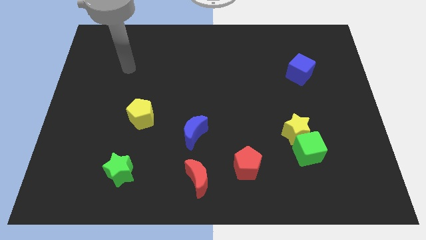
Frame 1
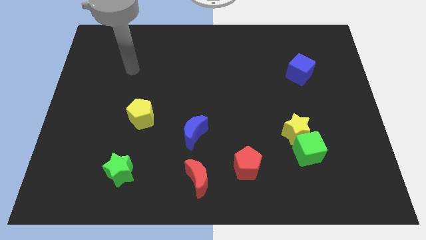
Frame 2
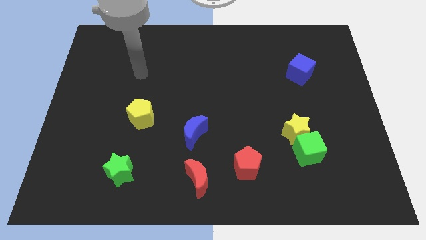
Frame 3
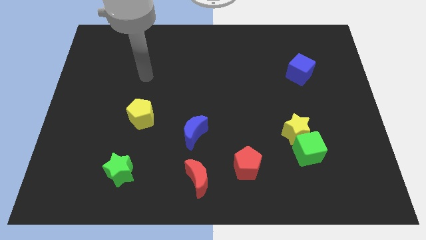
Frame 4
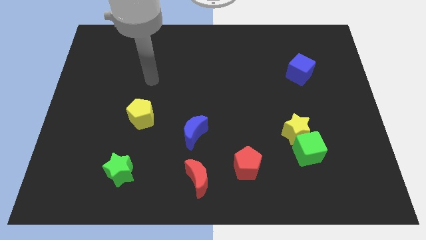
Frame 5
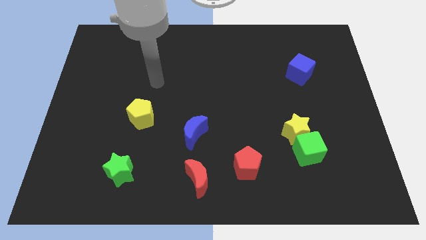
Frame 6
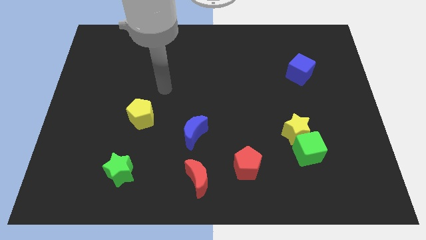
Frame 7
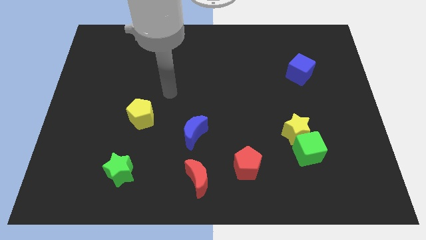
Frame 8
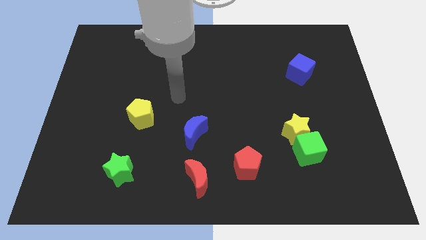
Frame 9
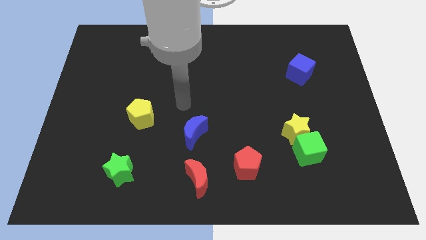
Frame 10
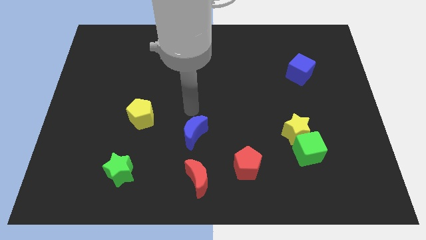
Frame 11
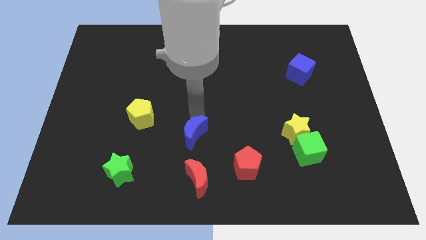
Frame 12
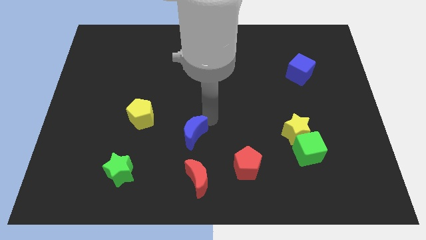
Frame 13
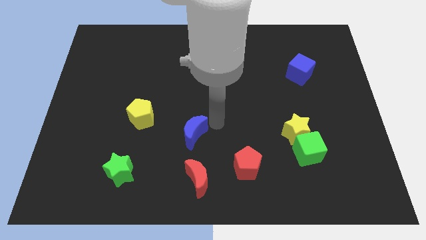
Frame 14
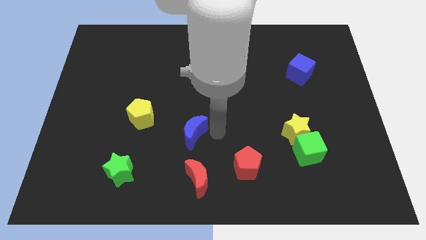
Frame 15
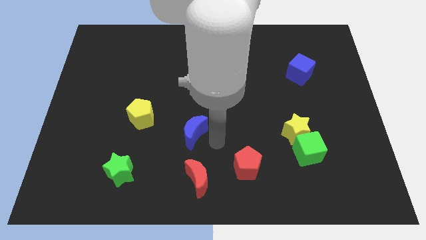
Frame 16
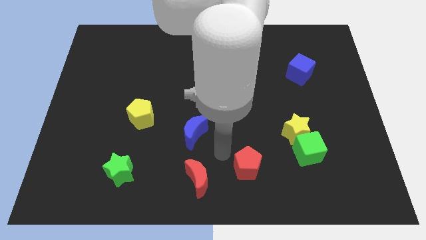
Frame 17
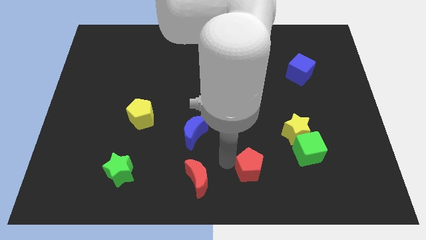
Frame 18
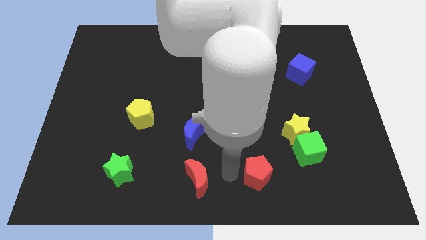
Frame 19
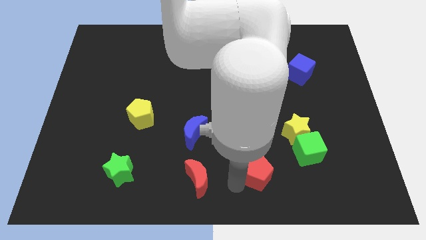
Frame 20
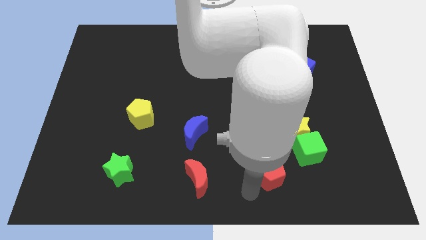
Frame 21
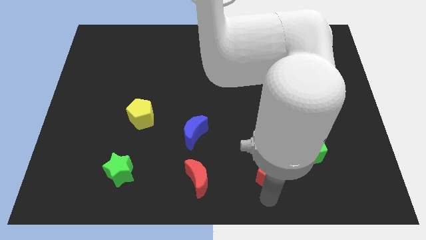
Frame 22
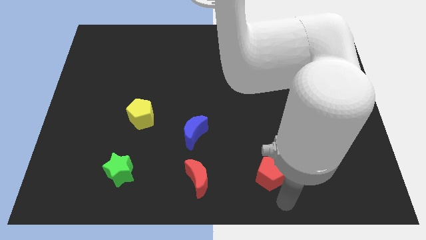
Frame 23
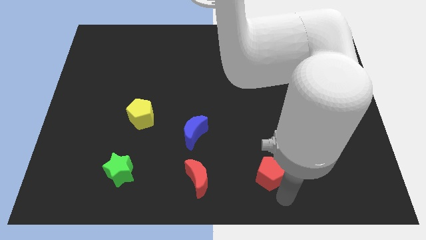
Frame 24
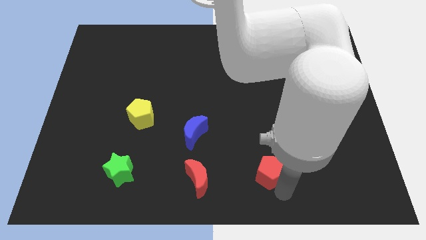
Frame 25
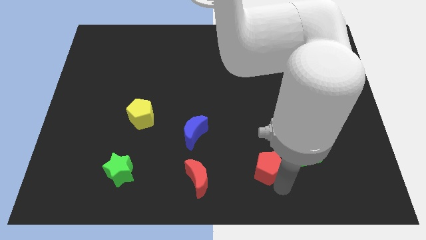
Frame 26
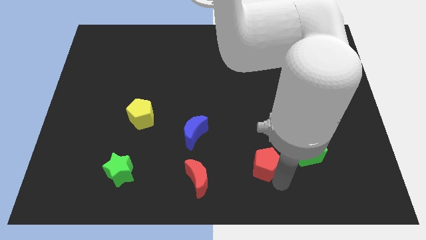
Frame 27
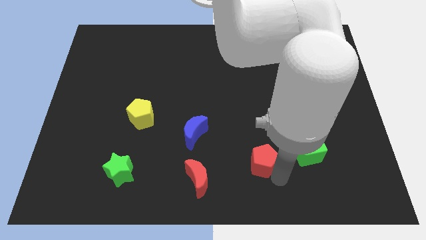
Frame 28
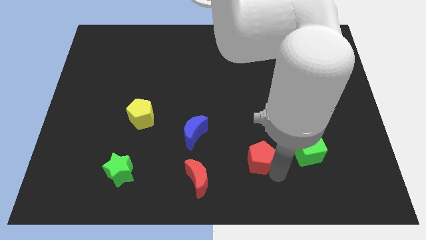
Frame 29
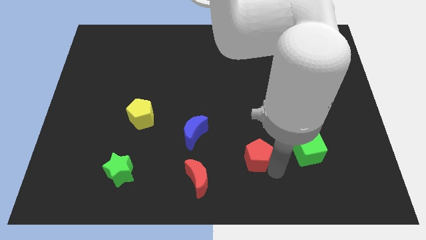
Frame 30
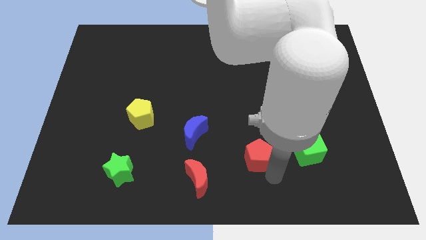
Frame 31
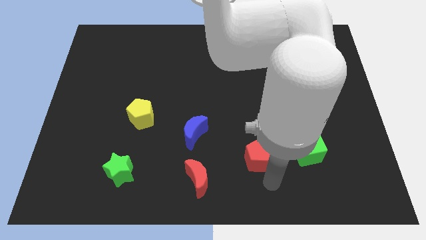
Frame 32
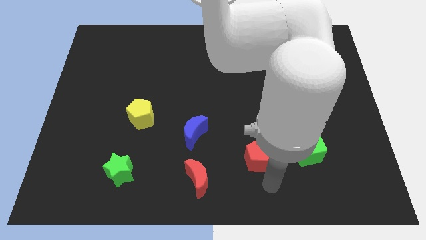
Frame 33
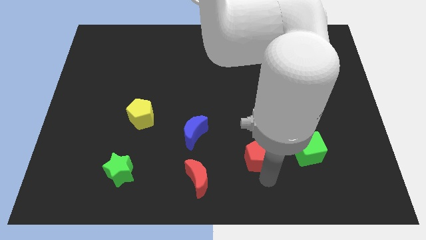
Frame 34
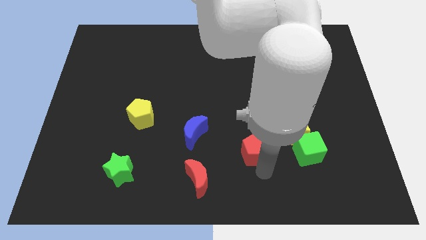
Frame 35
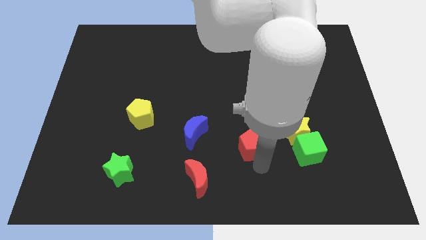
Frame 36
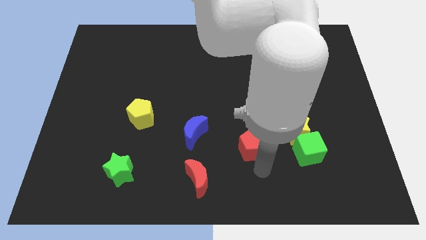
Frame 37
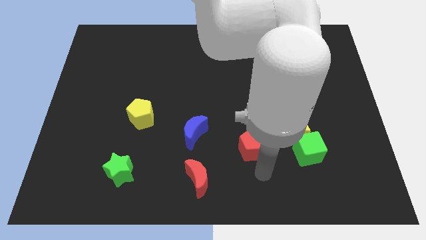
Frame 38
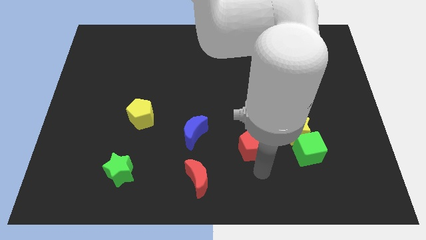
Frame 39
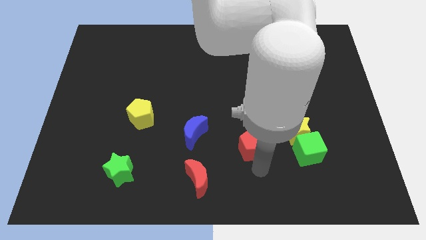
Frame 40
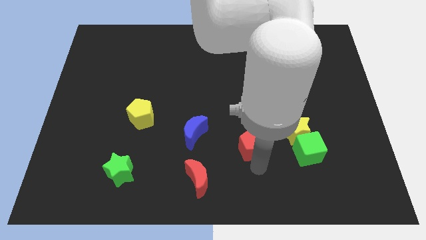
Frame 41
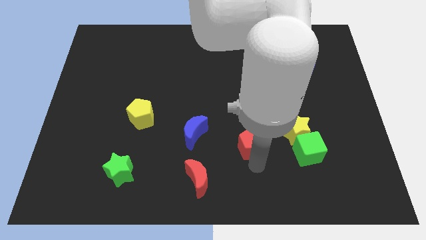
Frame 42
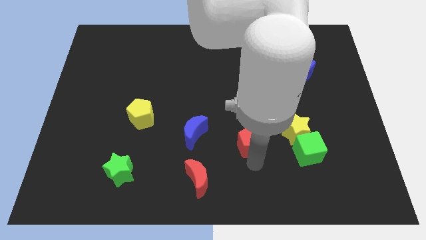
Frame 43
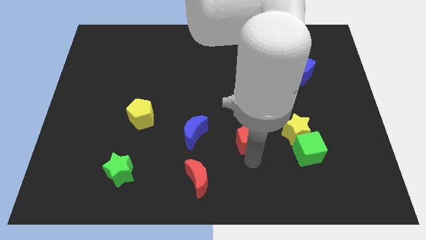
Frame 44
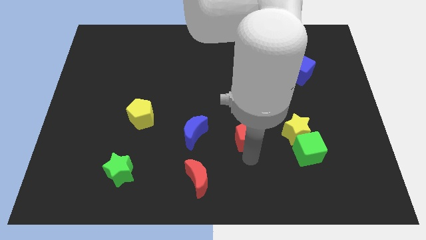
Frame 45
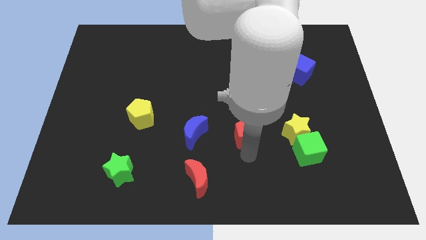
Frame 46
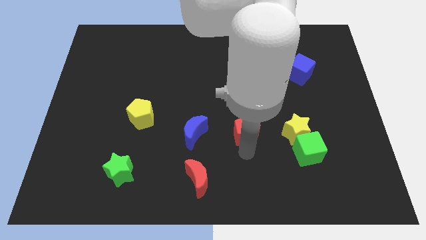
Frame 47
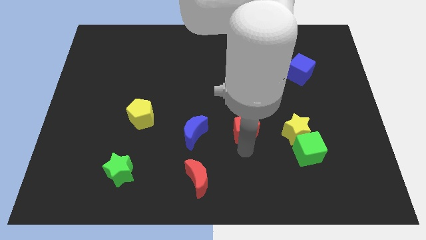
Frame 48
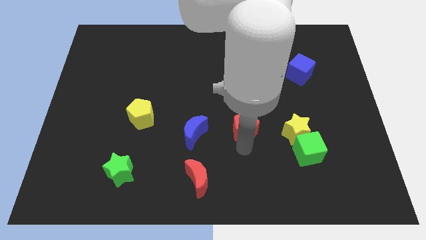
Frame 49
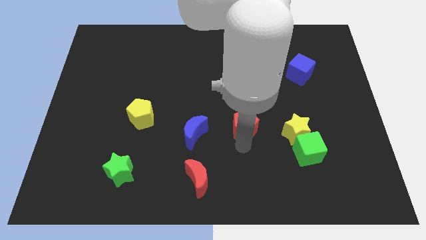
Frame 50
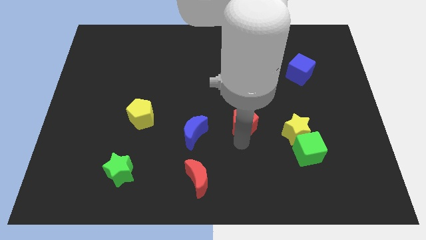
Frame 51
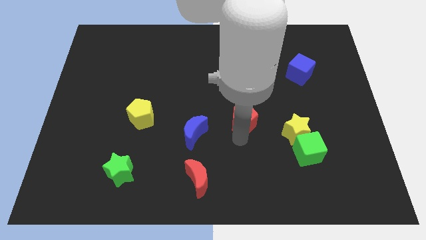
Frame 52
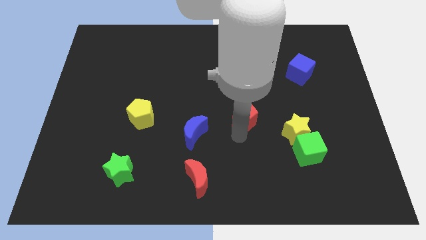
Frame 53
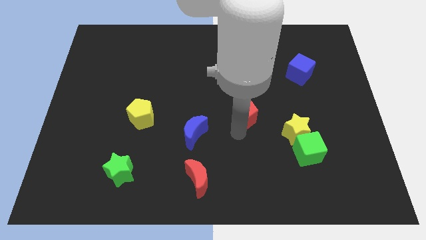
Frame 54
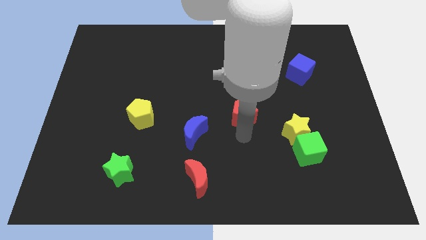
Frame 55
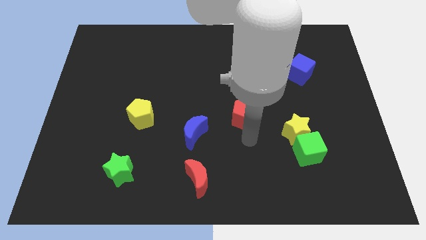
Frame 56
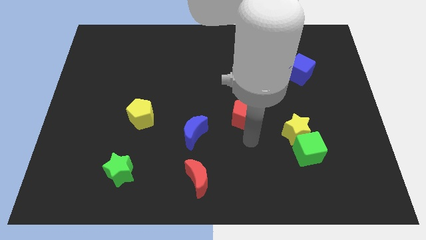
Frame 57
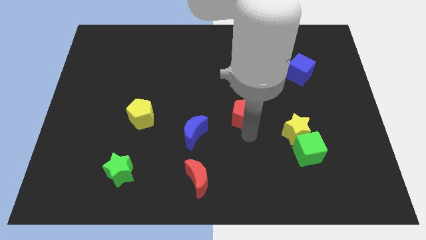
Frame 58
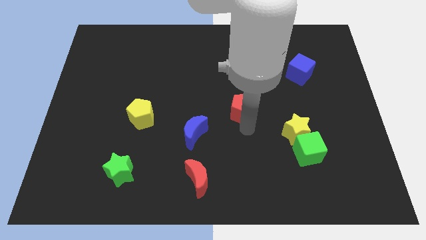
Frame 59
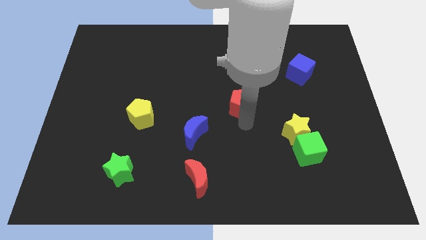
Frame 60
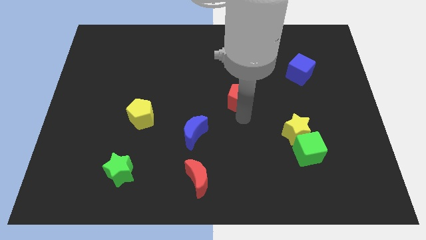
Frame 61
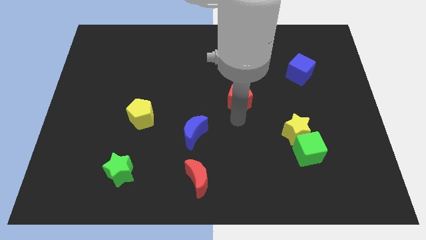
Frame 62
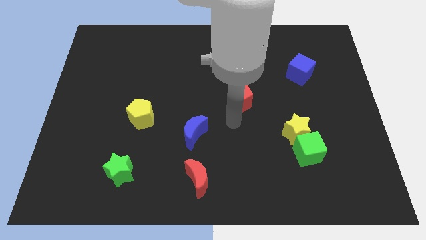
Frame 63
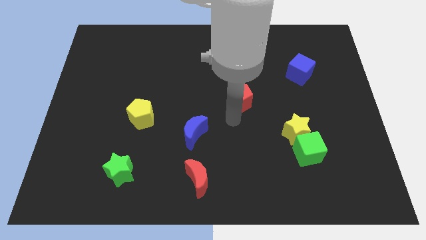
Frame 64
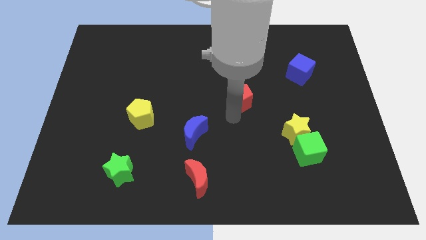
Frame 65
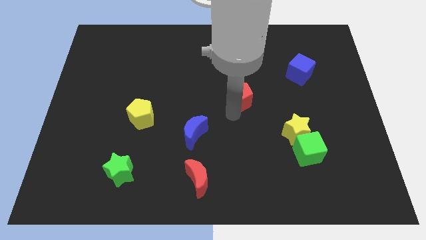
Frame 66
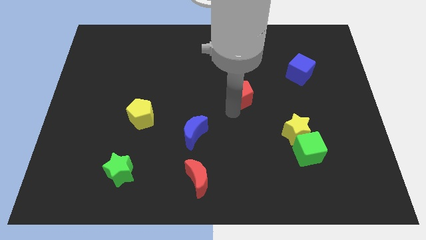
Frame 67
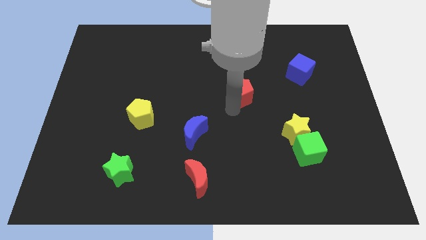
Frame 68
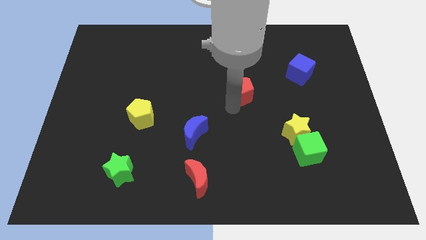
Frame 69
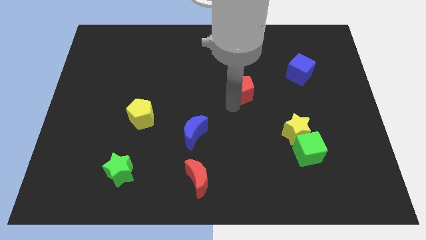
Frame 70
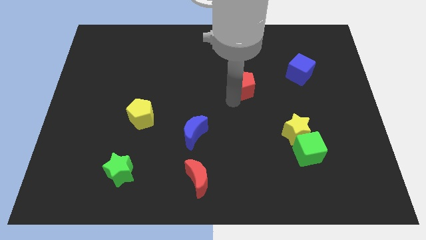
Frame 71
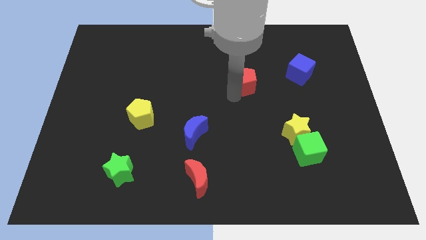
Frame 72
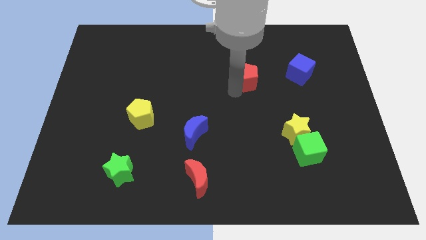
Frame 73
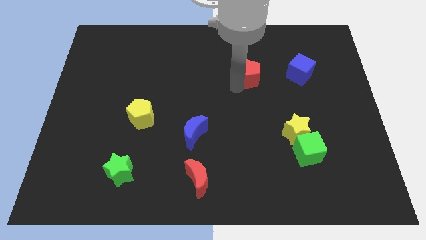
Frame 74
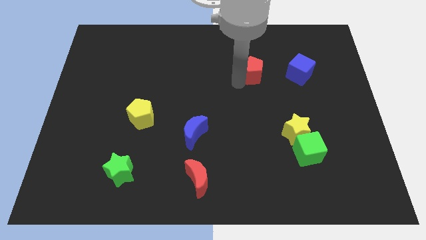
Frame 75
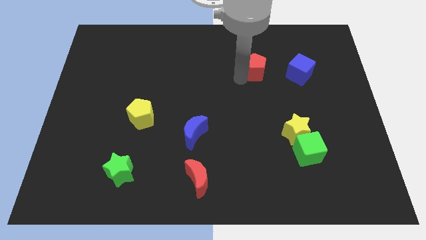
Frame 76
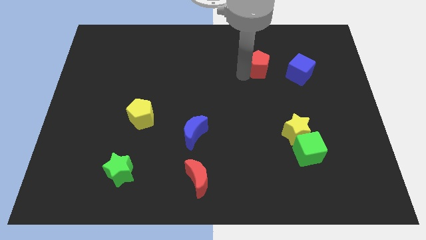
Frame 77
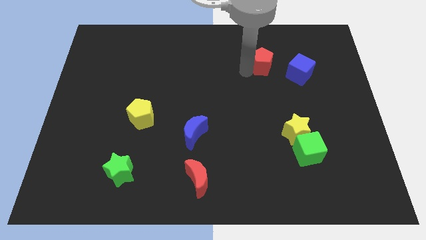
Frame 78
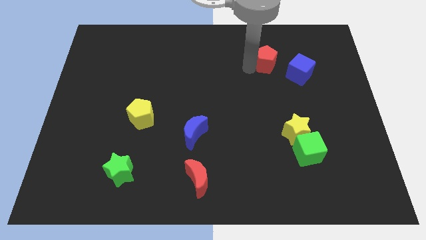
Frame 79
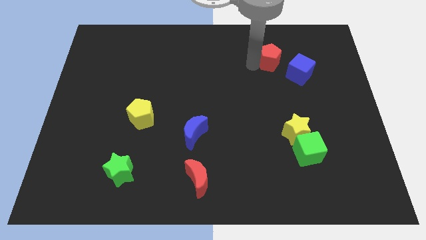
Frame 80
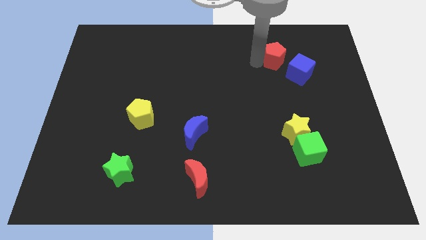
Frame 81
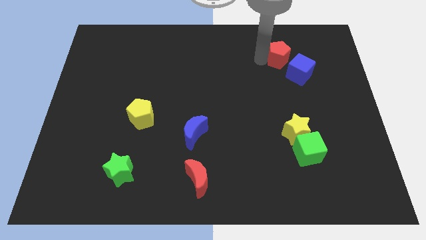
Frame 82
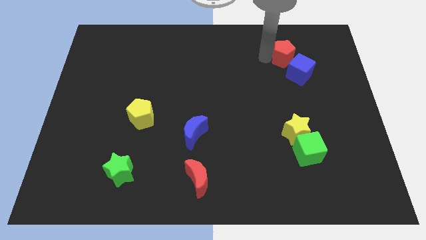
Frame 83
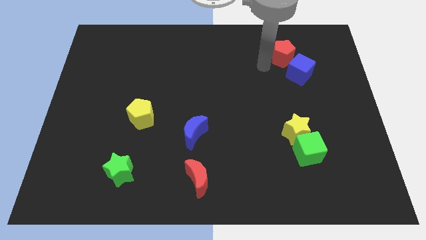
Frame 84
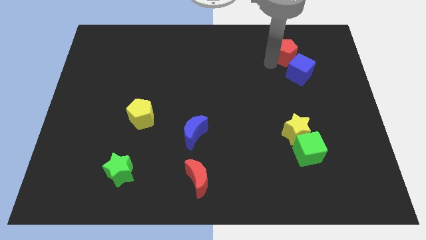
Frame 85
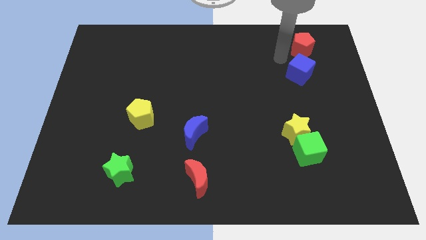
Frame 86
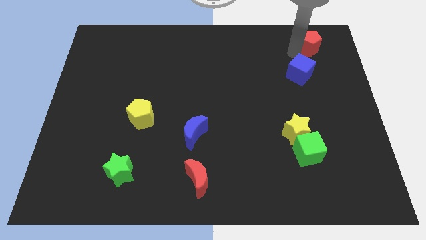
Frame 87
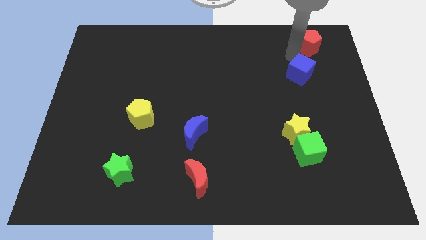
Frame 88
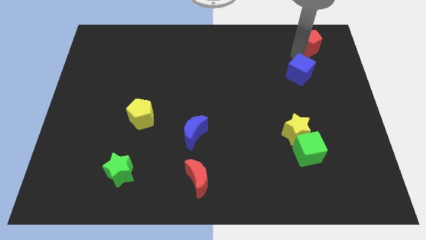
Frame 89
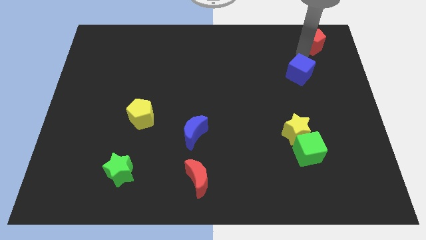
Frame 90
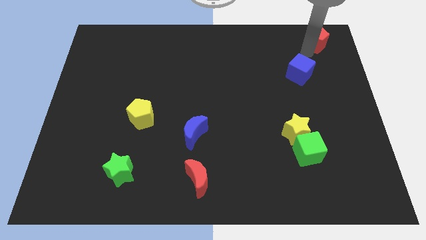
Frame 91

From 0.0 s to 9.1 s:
slide the red pentagon to the upper right corner
